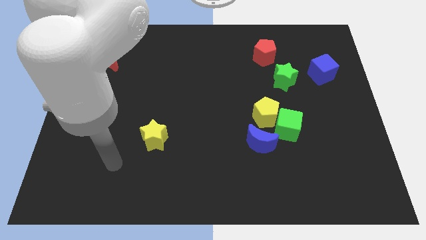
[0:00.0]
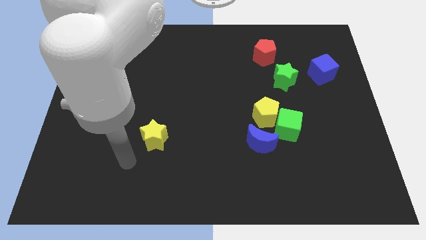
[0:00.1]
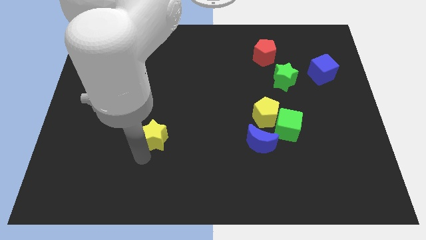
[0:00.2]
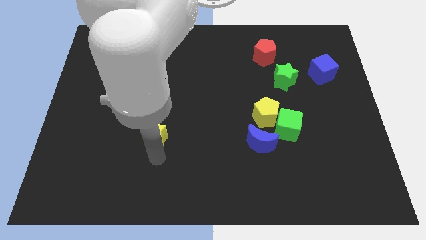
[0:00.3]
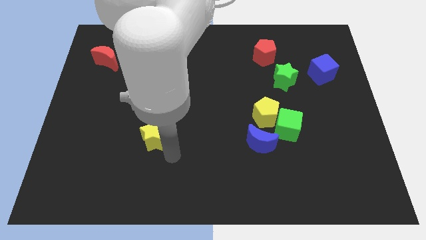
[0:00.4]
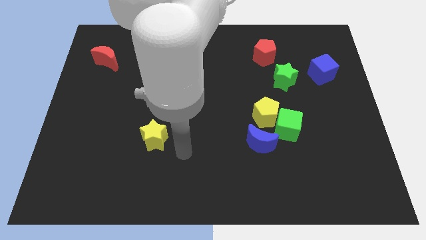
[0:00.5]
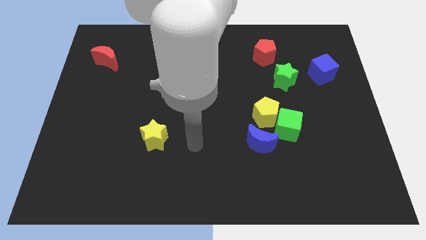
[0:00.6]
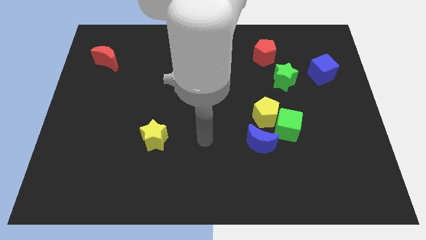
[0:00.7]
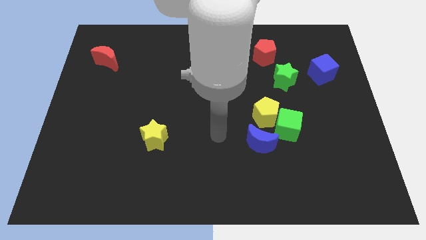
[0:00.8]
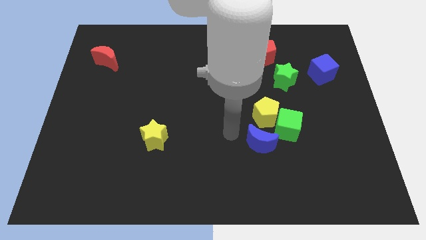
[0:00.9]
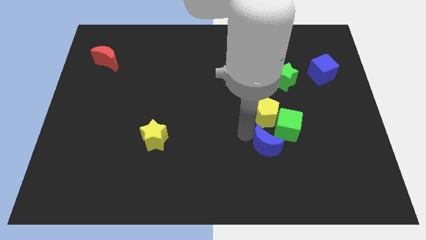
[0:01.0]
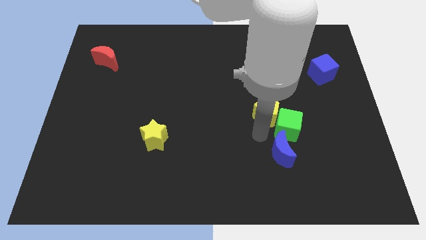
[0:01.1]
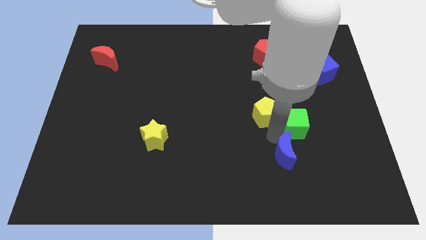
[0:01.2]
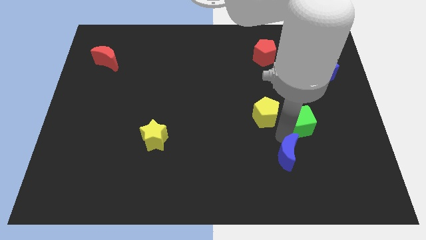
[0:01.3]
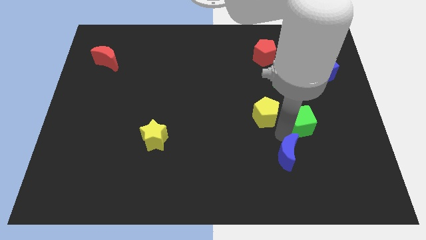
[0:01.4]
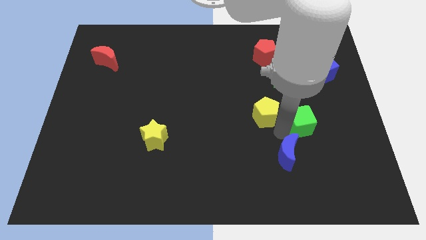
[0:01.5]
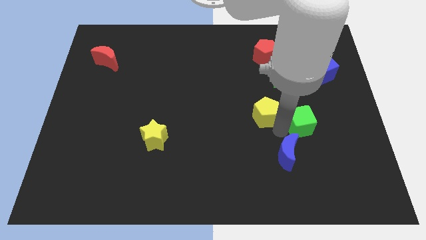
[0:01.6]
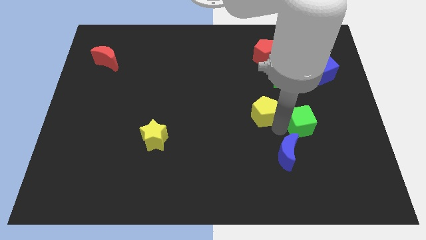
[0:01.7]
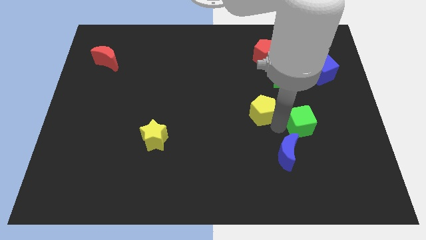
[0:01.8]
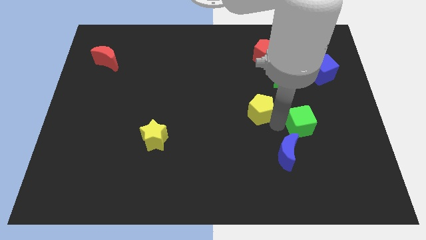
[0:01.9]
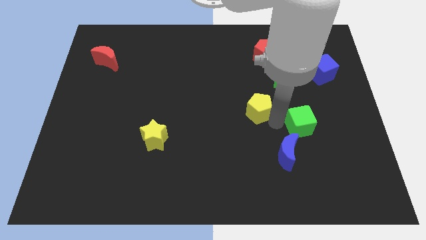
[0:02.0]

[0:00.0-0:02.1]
separate the yellow pentagon from the green cube and blue moon

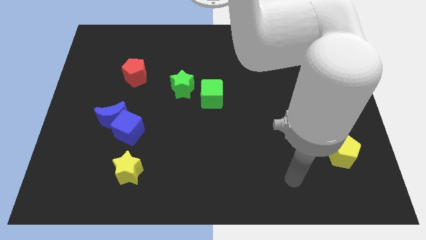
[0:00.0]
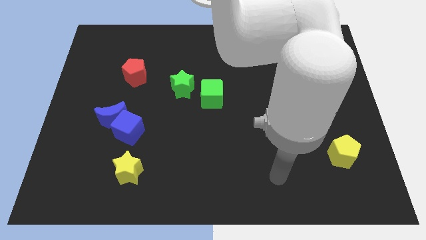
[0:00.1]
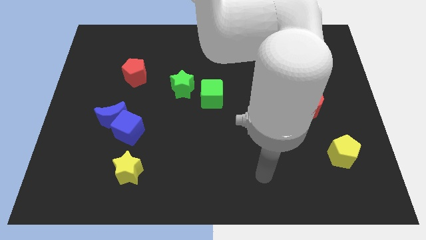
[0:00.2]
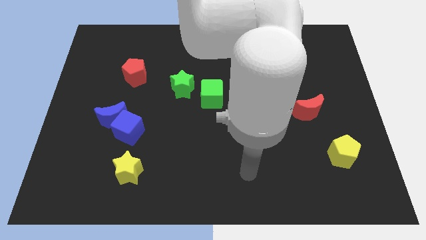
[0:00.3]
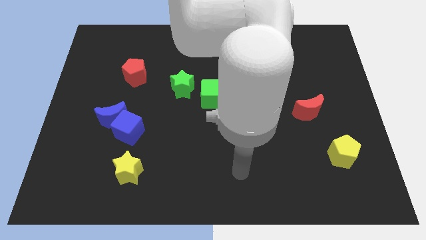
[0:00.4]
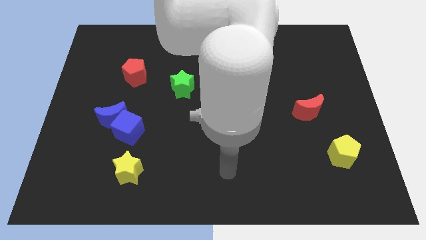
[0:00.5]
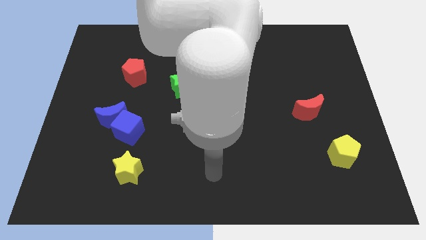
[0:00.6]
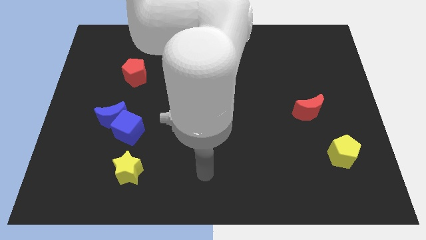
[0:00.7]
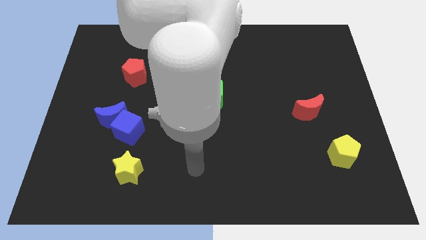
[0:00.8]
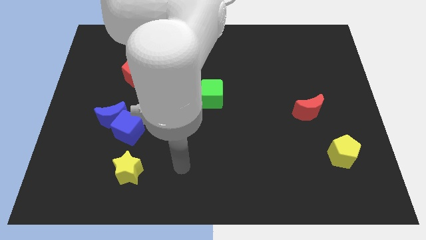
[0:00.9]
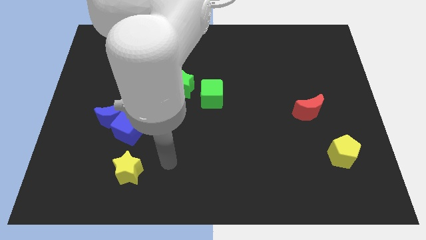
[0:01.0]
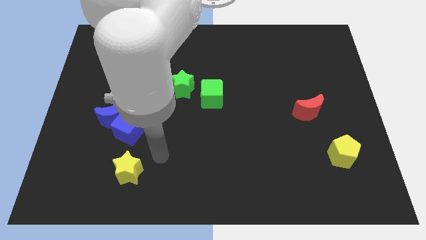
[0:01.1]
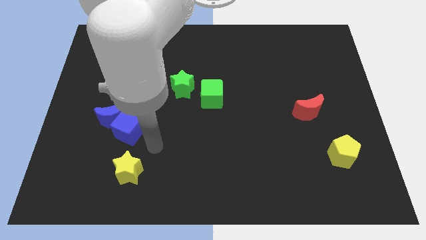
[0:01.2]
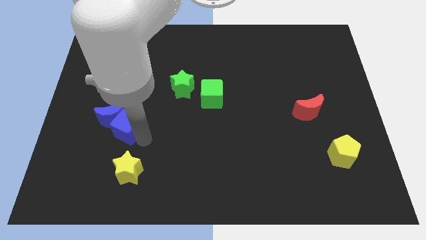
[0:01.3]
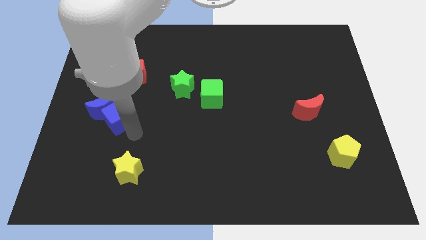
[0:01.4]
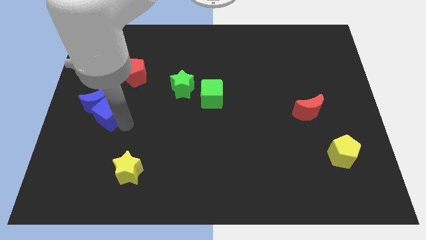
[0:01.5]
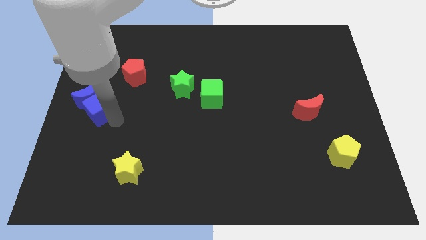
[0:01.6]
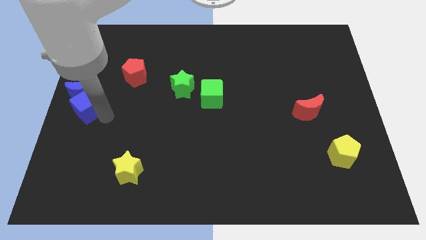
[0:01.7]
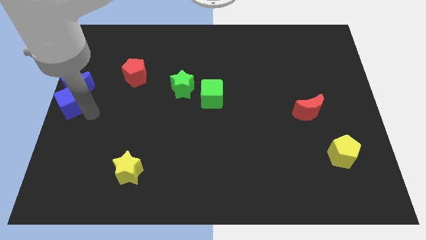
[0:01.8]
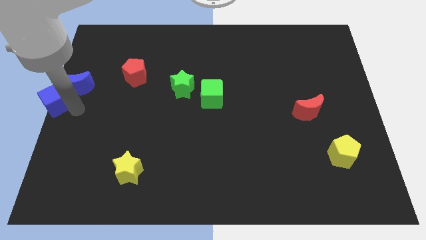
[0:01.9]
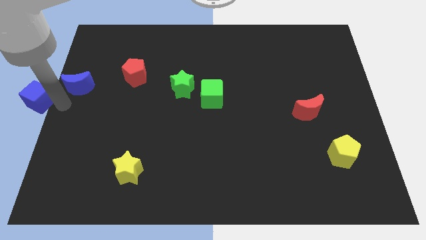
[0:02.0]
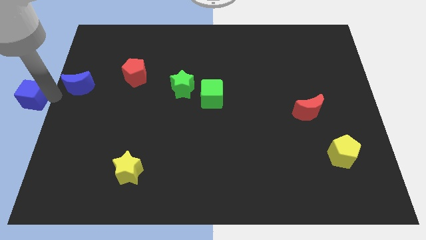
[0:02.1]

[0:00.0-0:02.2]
move the blue moon away from the blue cube

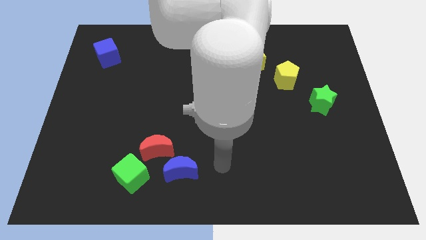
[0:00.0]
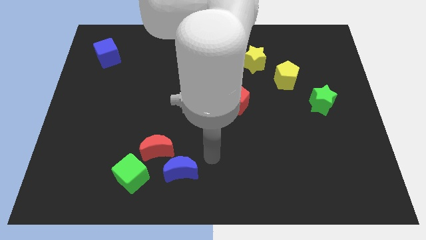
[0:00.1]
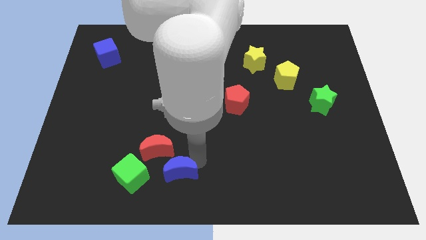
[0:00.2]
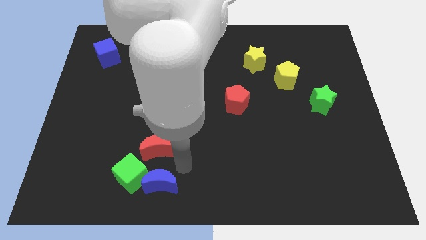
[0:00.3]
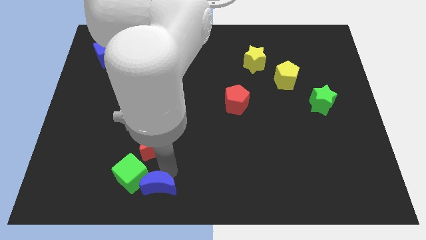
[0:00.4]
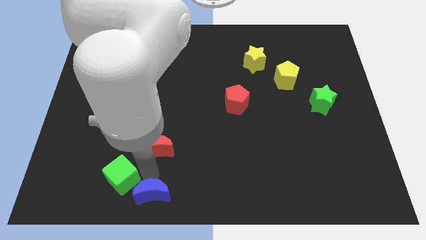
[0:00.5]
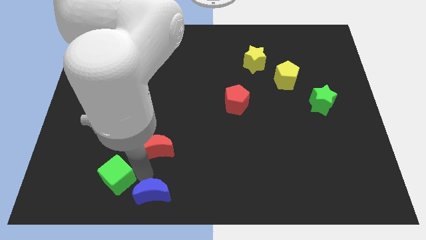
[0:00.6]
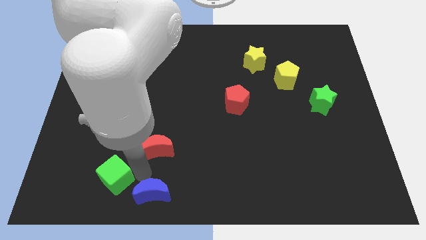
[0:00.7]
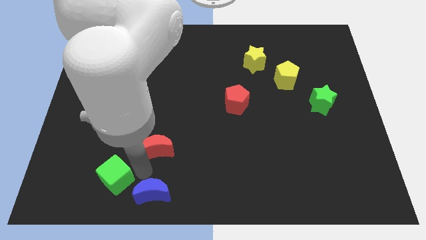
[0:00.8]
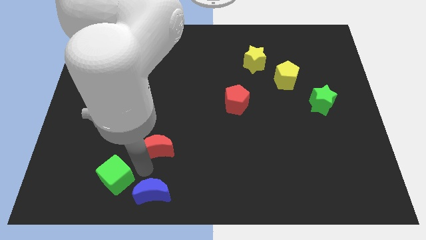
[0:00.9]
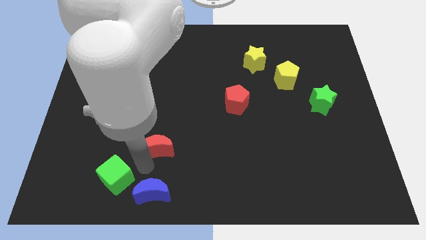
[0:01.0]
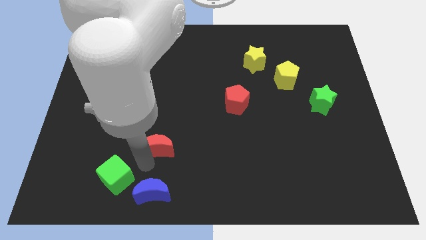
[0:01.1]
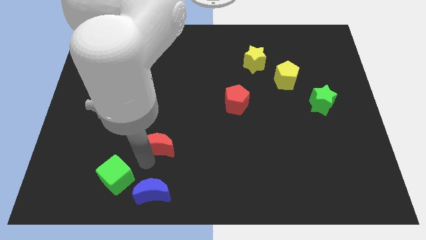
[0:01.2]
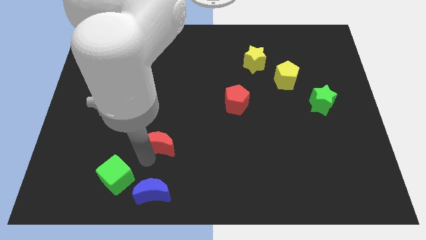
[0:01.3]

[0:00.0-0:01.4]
pull the red moon apart from the blue moon and green cube

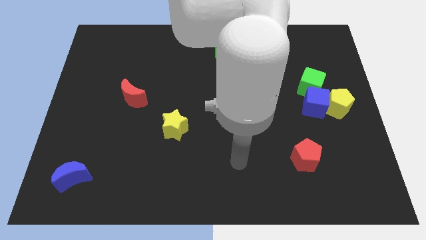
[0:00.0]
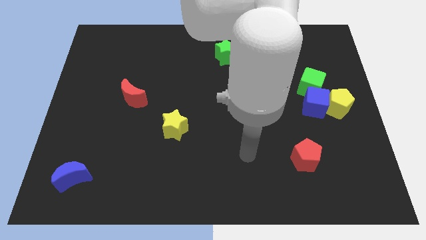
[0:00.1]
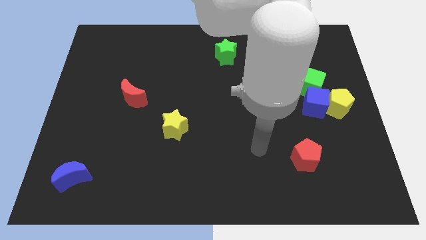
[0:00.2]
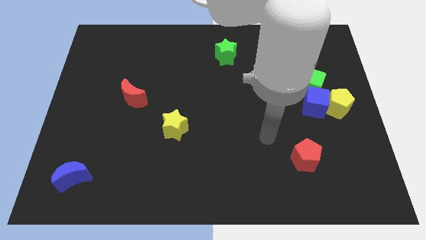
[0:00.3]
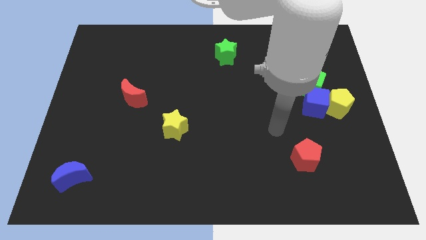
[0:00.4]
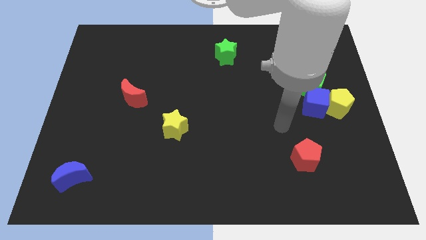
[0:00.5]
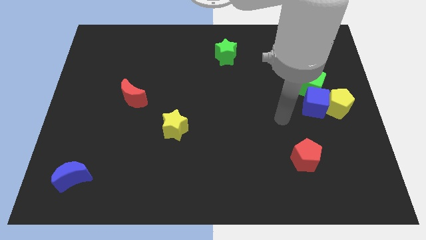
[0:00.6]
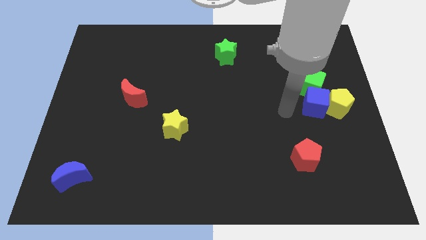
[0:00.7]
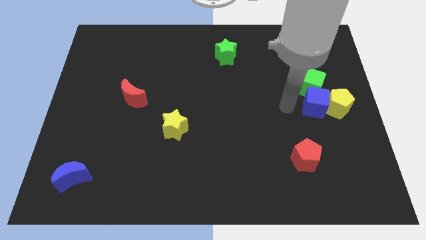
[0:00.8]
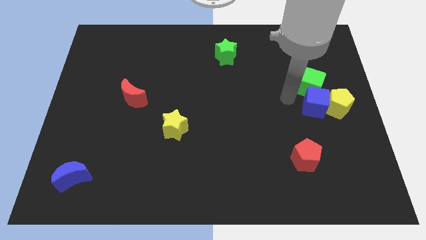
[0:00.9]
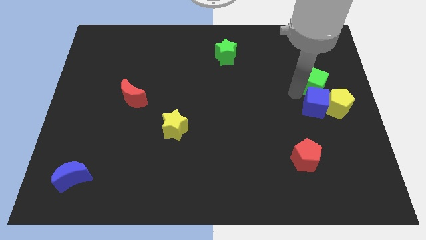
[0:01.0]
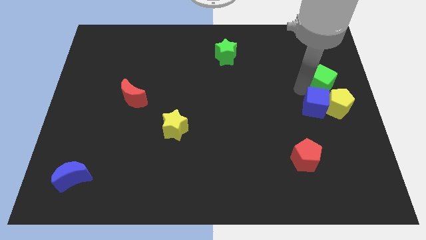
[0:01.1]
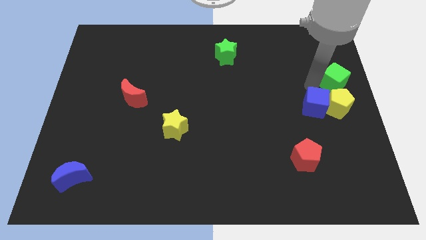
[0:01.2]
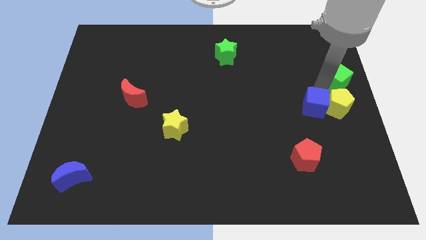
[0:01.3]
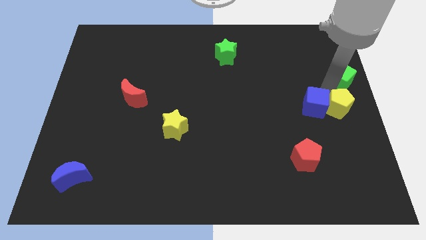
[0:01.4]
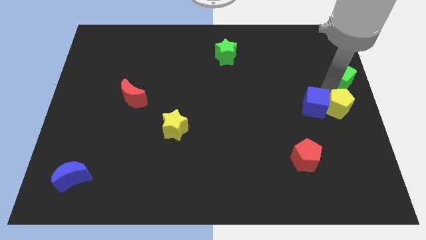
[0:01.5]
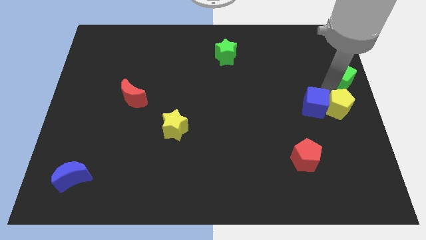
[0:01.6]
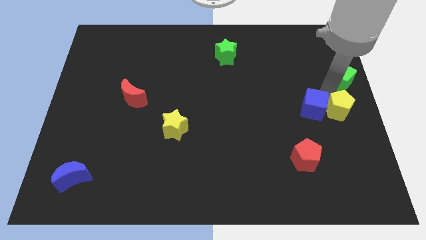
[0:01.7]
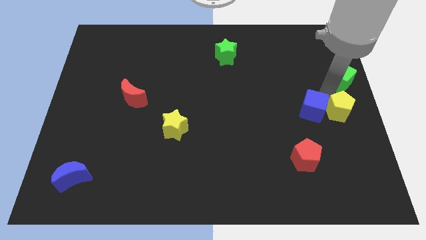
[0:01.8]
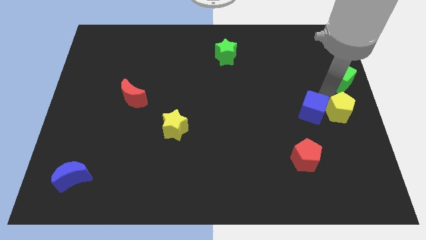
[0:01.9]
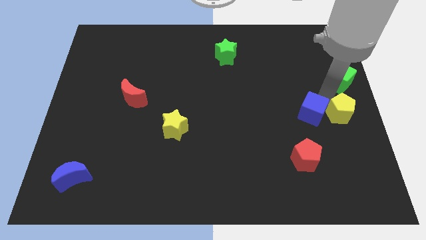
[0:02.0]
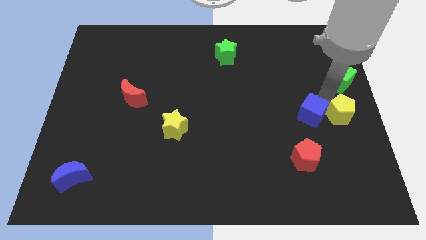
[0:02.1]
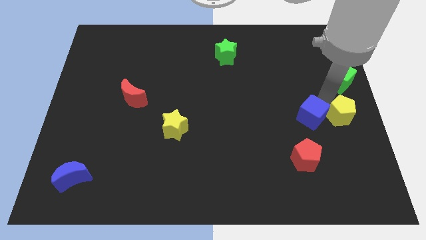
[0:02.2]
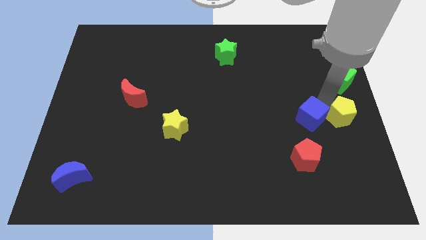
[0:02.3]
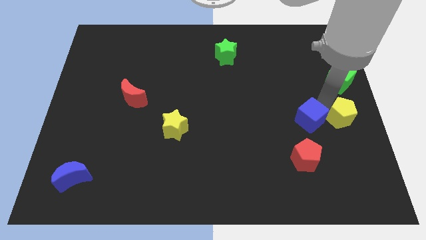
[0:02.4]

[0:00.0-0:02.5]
separate the blue cube from the yellow pentagon and green cube

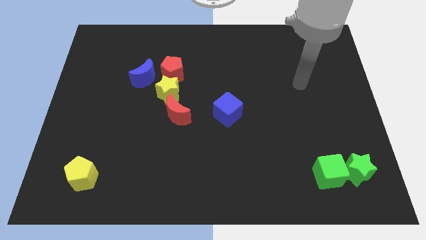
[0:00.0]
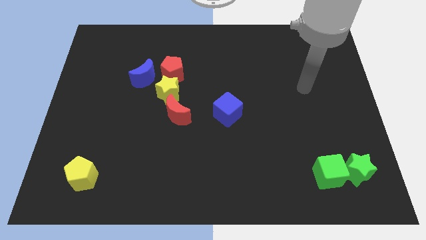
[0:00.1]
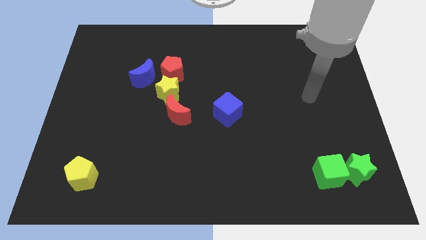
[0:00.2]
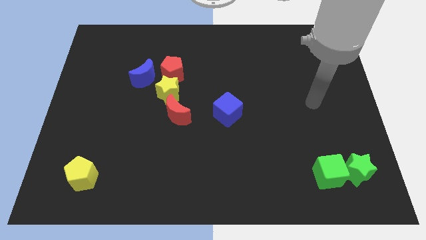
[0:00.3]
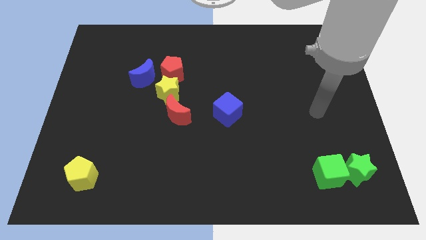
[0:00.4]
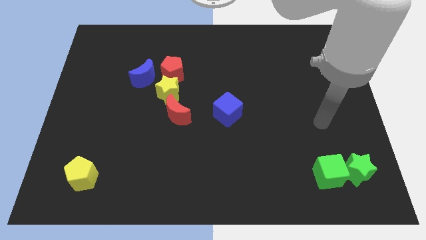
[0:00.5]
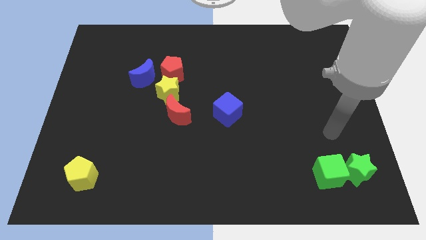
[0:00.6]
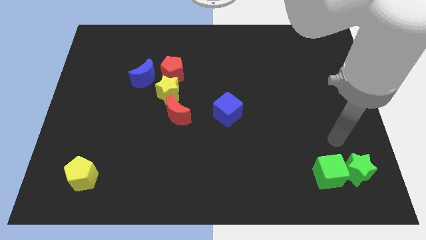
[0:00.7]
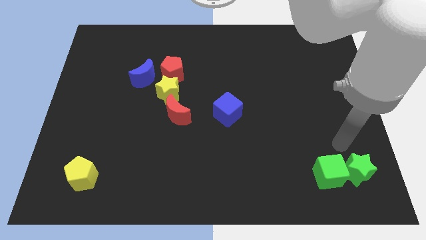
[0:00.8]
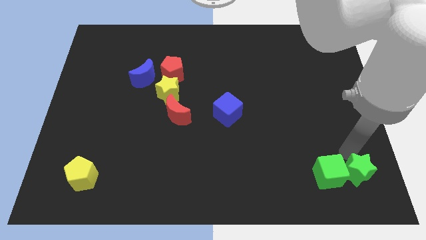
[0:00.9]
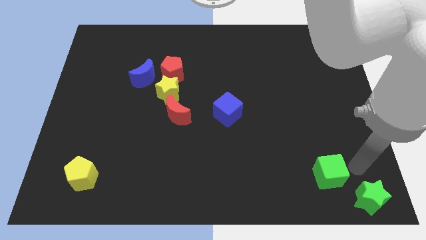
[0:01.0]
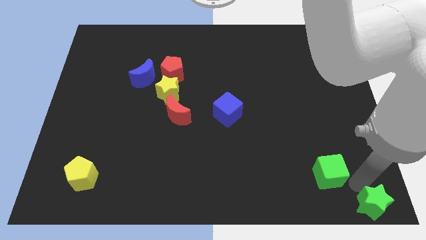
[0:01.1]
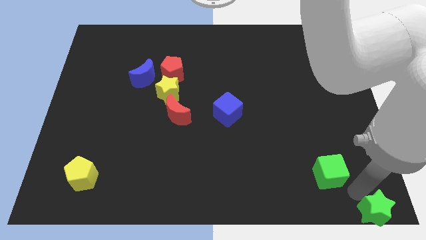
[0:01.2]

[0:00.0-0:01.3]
separate the green cube from the green star
